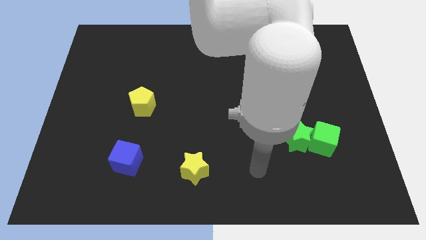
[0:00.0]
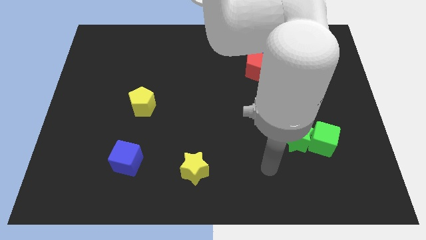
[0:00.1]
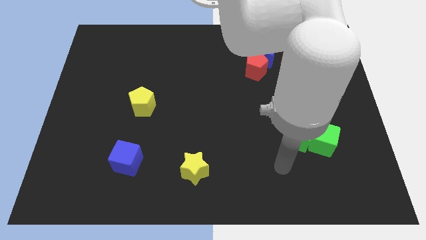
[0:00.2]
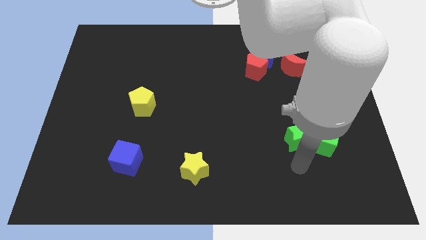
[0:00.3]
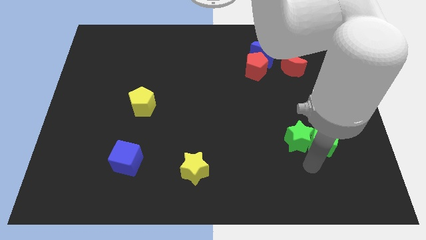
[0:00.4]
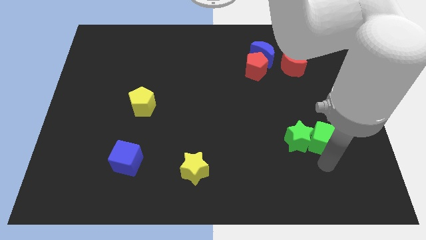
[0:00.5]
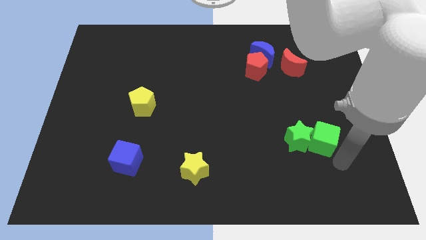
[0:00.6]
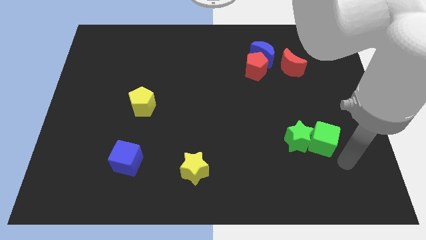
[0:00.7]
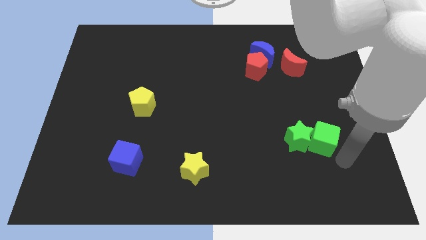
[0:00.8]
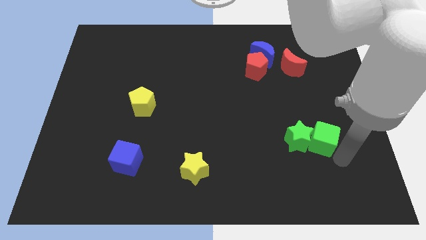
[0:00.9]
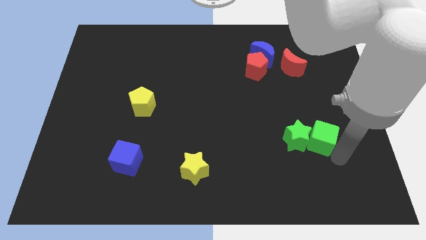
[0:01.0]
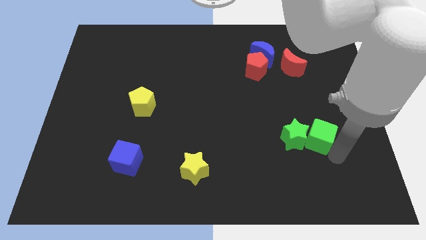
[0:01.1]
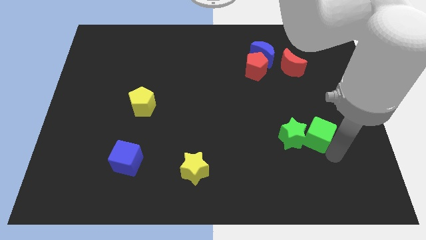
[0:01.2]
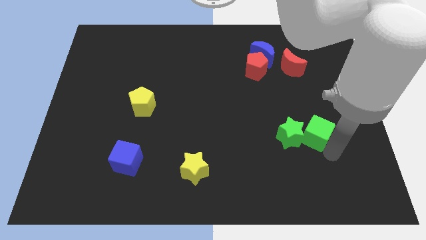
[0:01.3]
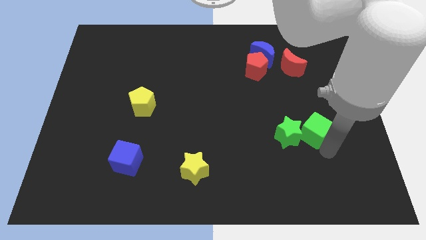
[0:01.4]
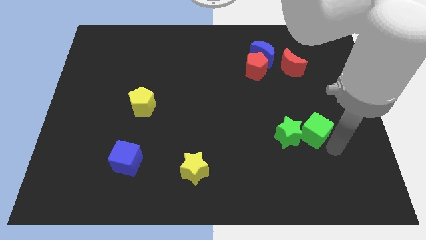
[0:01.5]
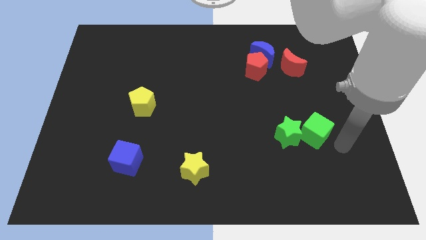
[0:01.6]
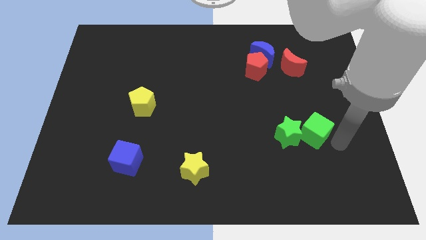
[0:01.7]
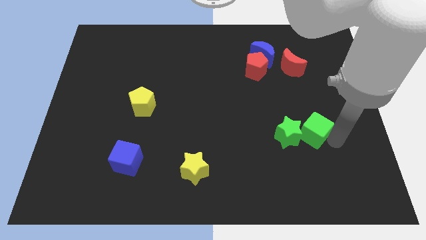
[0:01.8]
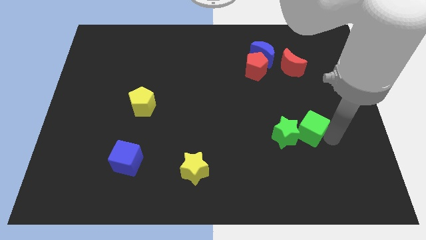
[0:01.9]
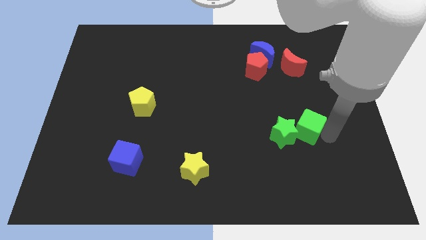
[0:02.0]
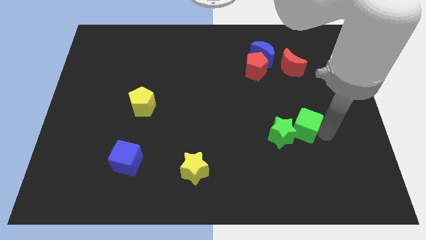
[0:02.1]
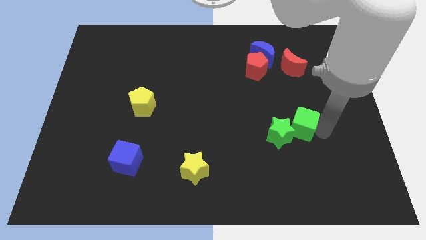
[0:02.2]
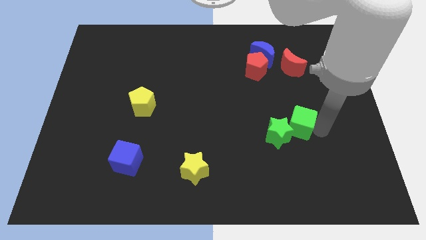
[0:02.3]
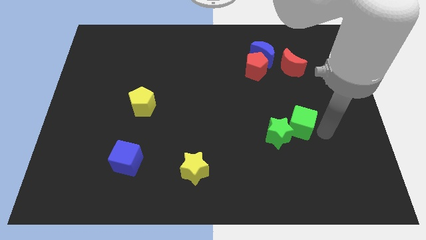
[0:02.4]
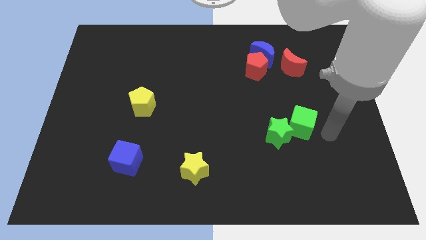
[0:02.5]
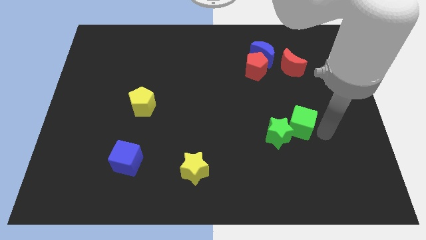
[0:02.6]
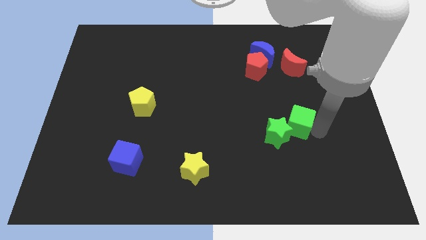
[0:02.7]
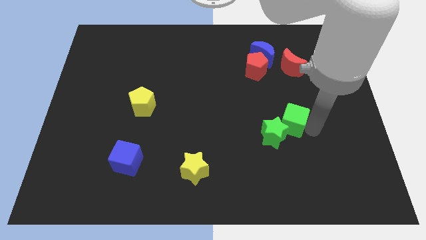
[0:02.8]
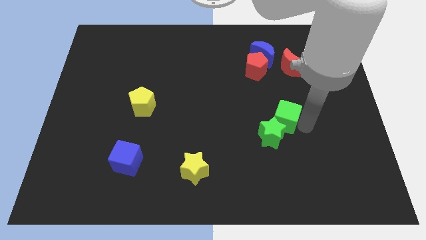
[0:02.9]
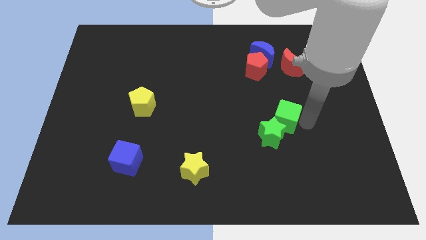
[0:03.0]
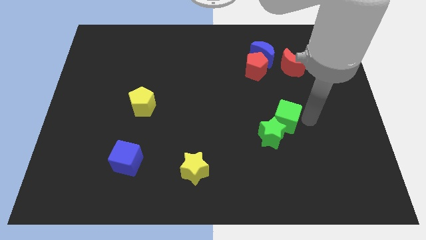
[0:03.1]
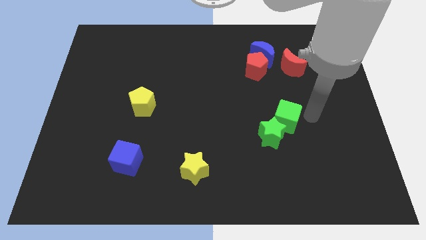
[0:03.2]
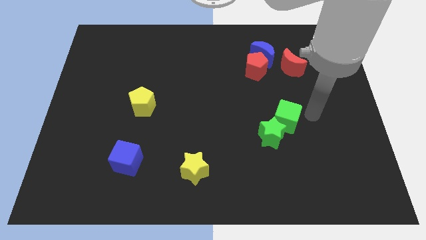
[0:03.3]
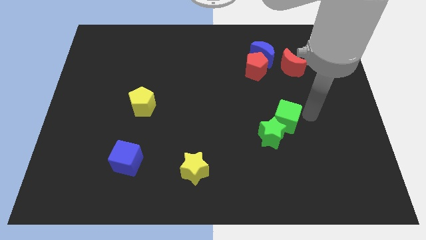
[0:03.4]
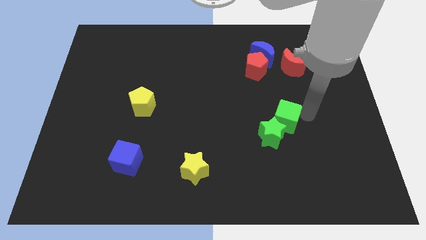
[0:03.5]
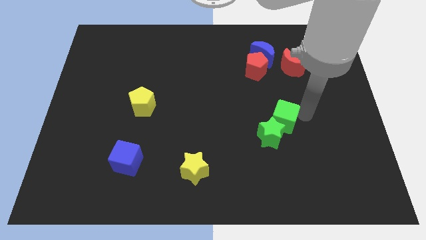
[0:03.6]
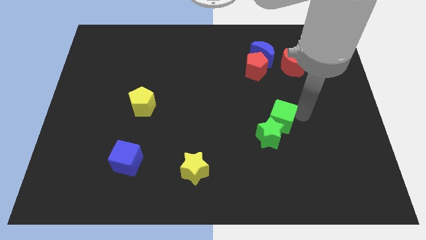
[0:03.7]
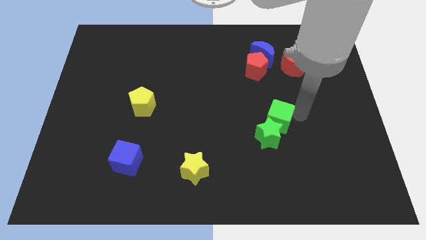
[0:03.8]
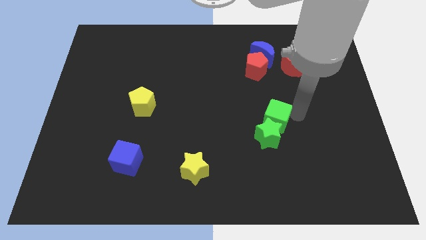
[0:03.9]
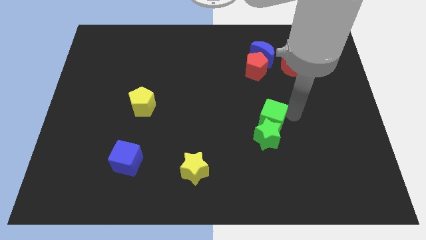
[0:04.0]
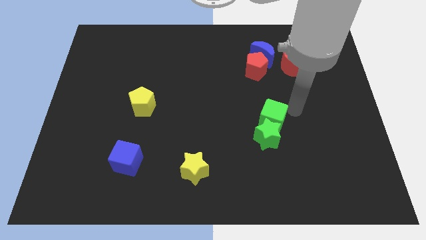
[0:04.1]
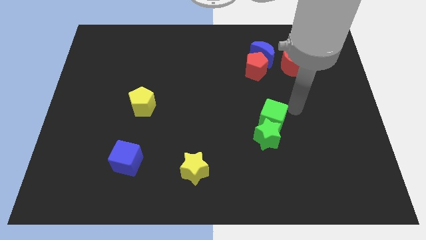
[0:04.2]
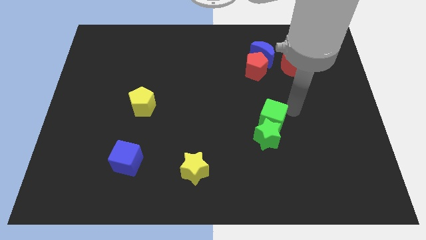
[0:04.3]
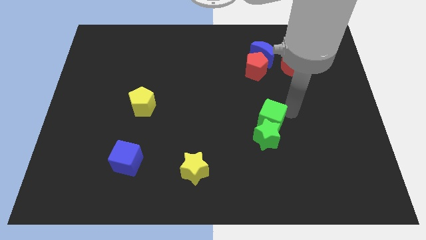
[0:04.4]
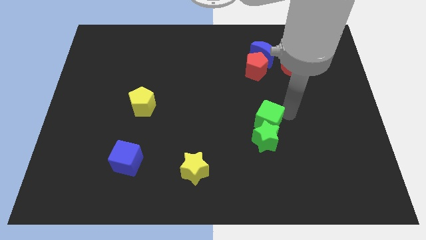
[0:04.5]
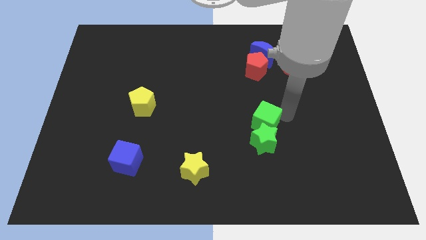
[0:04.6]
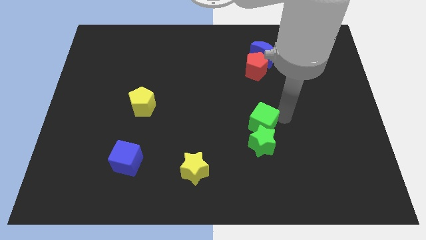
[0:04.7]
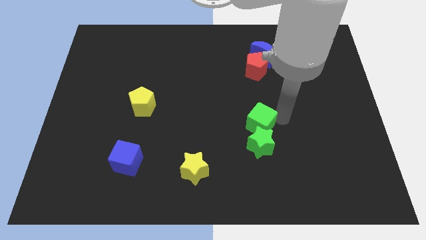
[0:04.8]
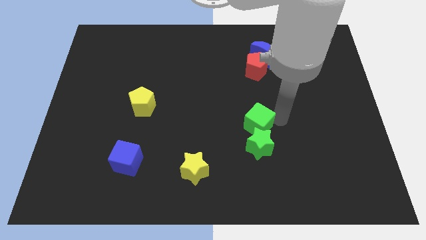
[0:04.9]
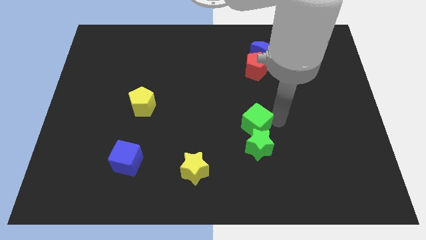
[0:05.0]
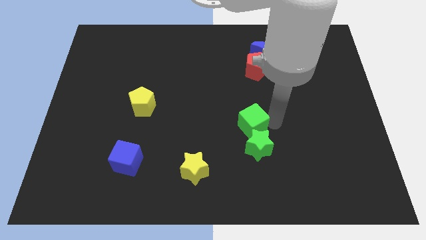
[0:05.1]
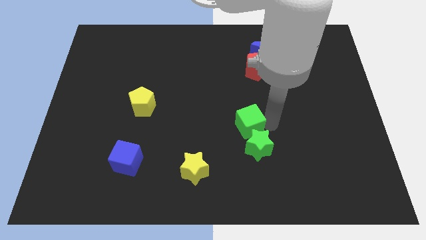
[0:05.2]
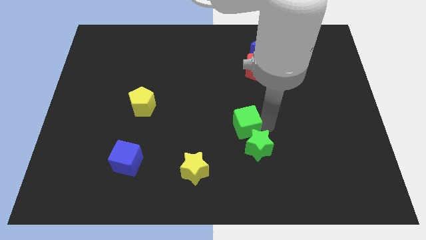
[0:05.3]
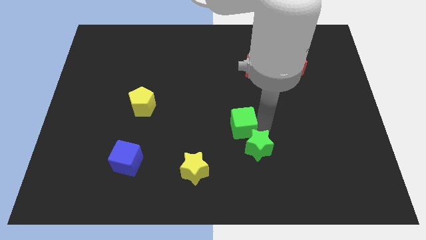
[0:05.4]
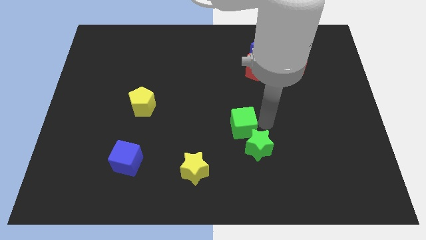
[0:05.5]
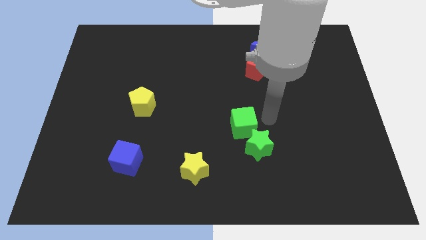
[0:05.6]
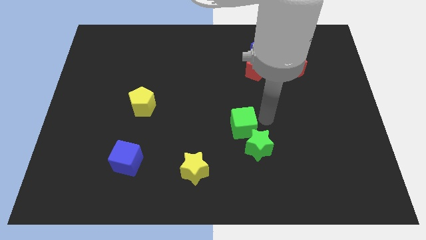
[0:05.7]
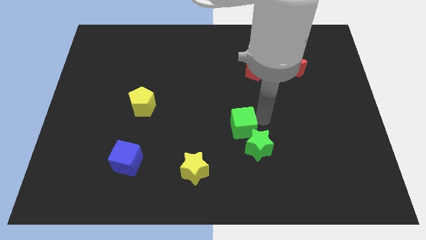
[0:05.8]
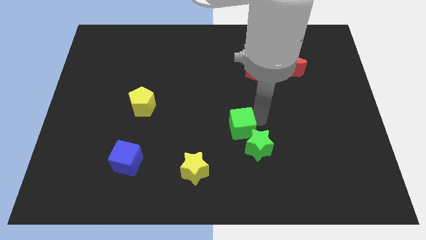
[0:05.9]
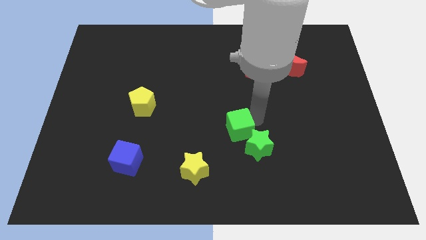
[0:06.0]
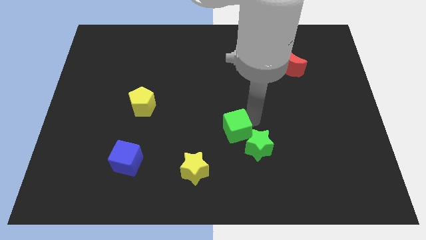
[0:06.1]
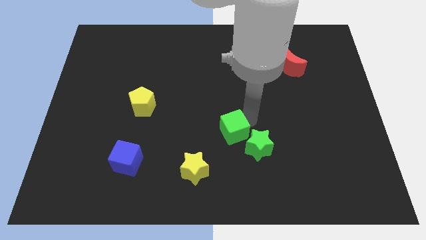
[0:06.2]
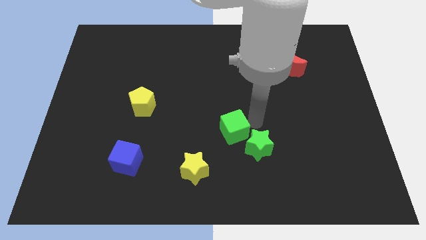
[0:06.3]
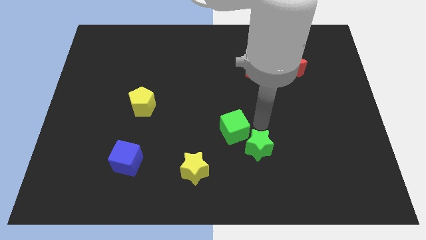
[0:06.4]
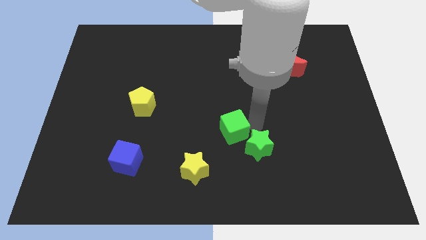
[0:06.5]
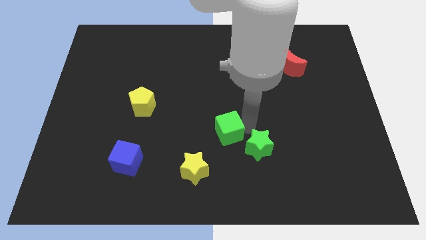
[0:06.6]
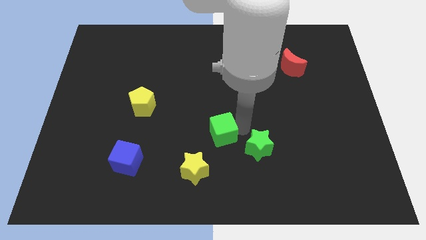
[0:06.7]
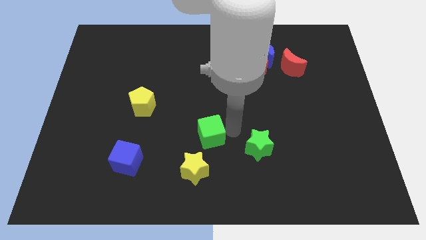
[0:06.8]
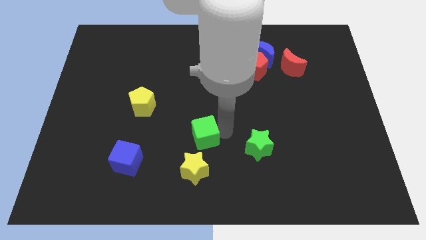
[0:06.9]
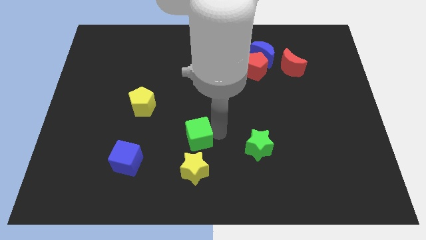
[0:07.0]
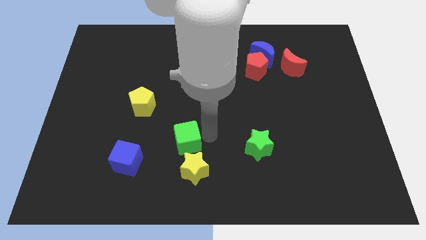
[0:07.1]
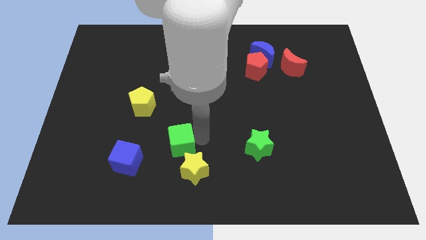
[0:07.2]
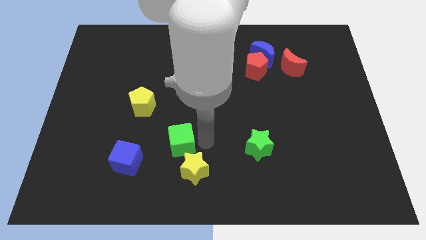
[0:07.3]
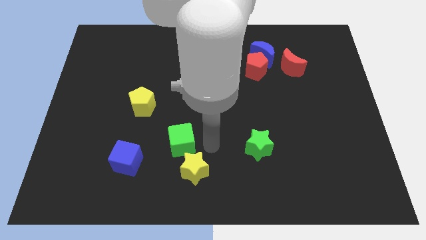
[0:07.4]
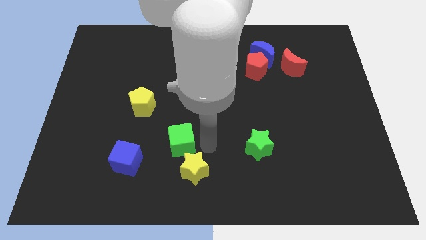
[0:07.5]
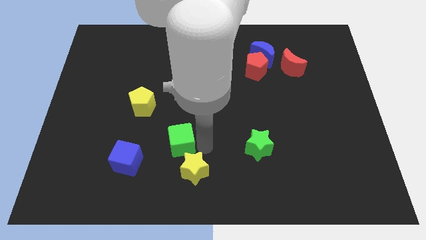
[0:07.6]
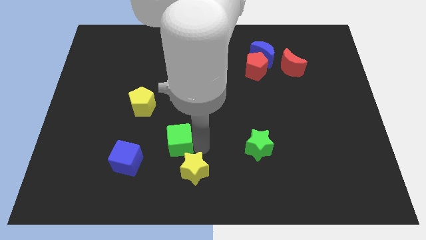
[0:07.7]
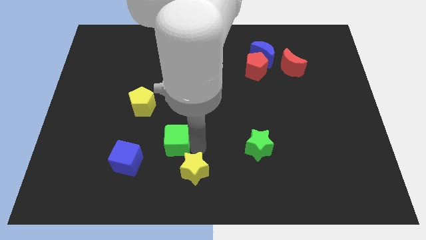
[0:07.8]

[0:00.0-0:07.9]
move the green cube to the top right side of the blue cube
